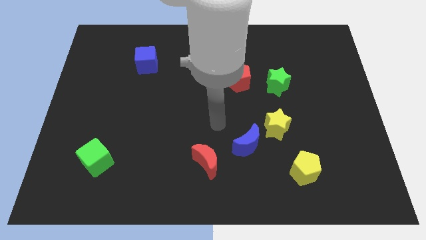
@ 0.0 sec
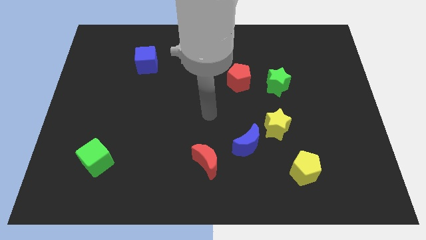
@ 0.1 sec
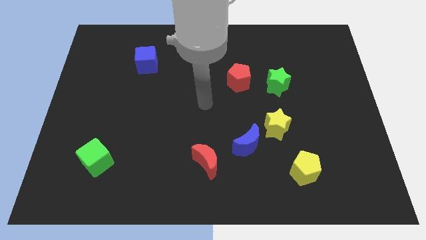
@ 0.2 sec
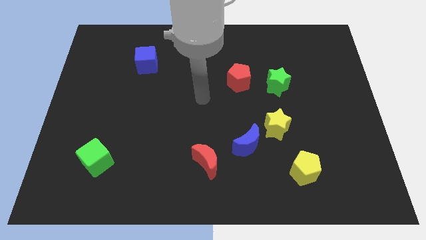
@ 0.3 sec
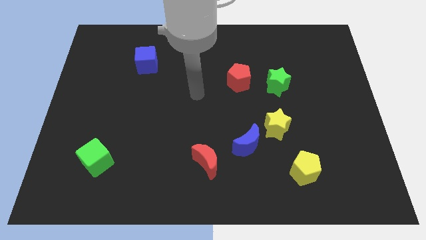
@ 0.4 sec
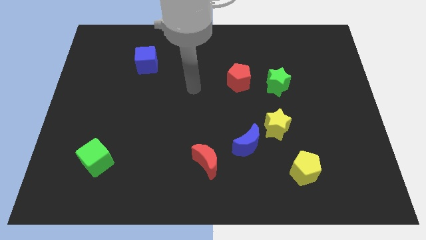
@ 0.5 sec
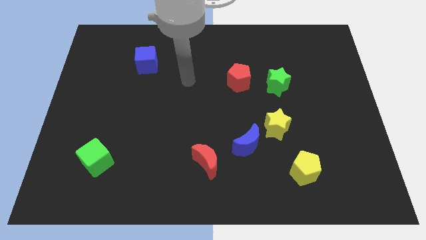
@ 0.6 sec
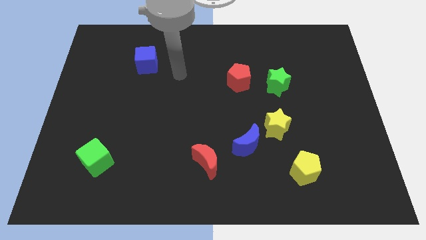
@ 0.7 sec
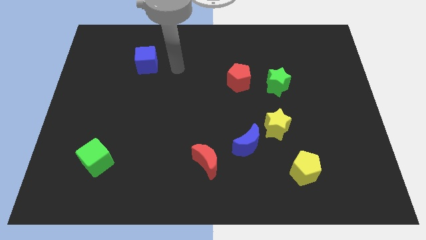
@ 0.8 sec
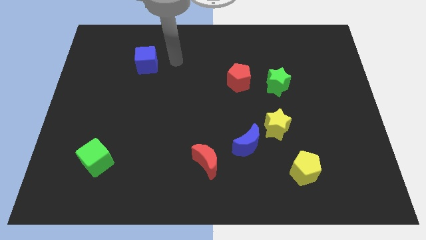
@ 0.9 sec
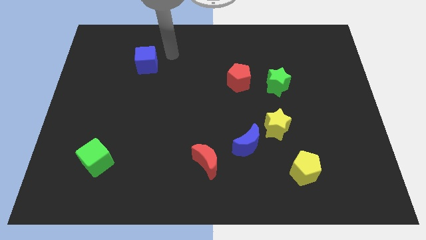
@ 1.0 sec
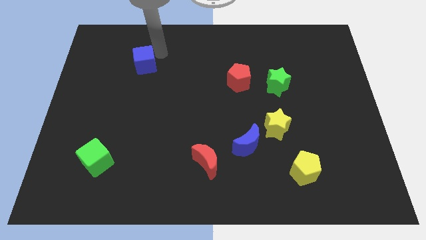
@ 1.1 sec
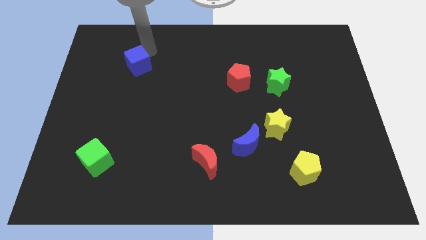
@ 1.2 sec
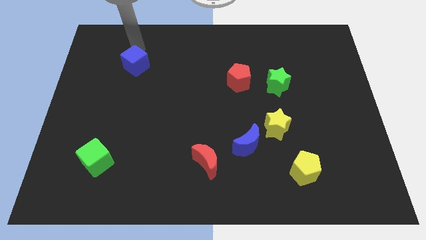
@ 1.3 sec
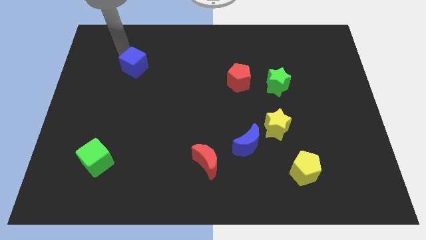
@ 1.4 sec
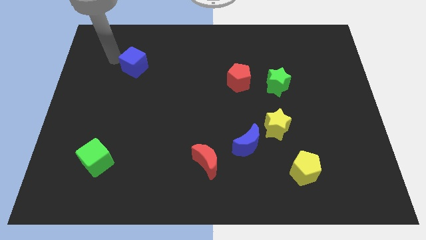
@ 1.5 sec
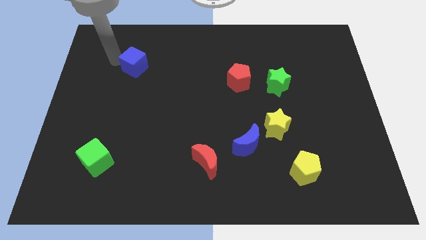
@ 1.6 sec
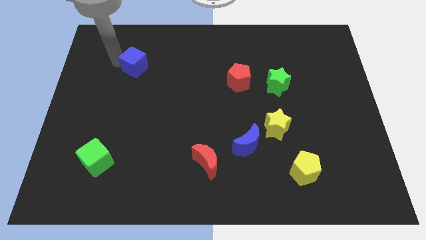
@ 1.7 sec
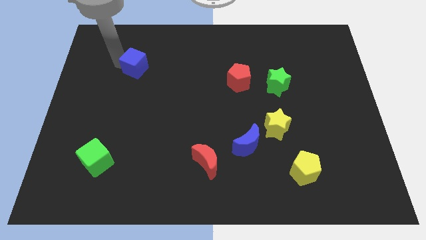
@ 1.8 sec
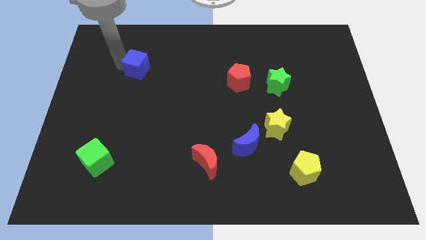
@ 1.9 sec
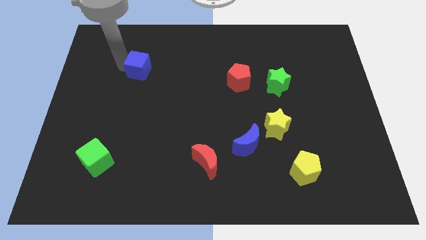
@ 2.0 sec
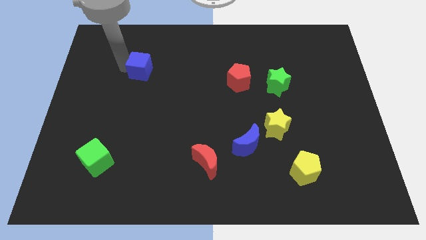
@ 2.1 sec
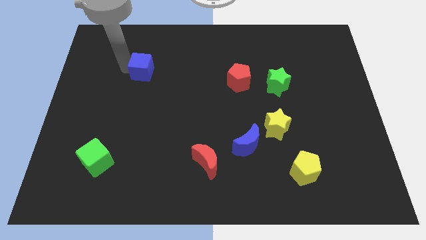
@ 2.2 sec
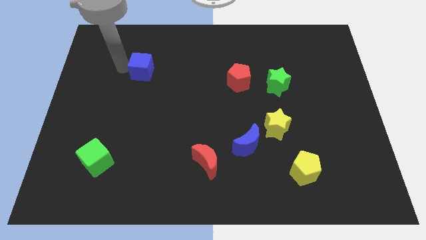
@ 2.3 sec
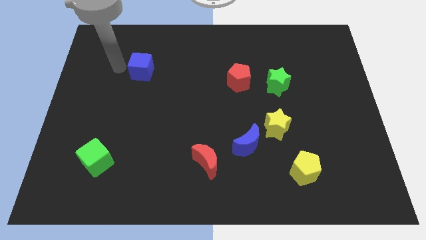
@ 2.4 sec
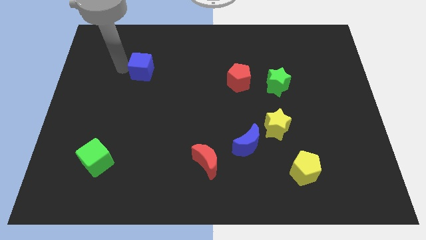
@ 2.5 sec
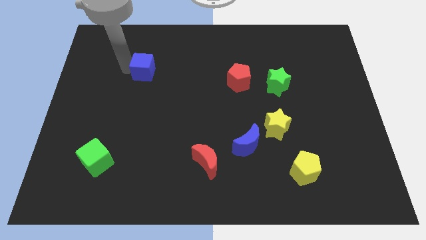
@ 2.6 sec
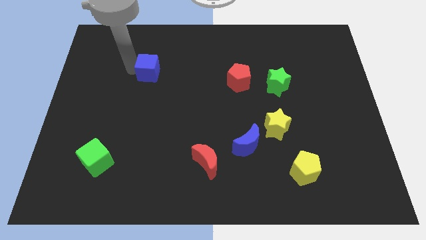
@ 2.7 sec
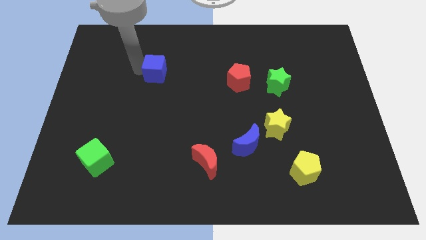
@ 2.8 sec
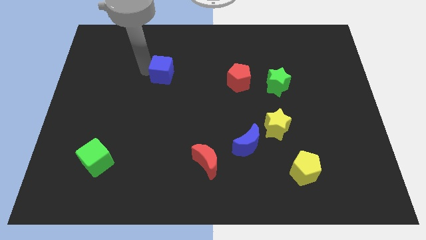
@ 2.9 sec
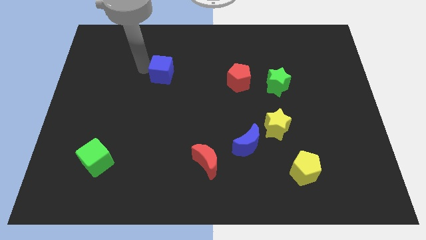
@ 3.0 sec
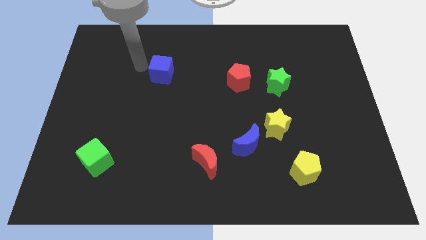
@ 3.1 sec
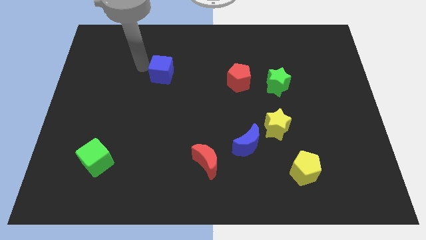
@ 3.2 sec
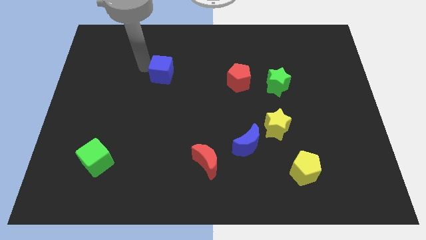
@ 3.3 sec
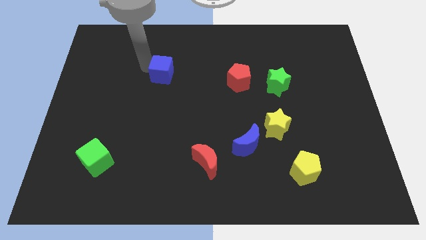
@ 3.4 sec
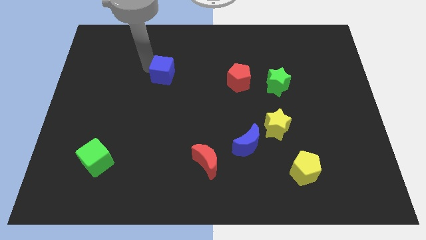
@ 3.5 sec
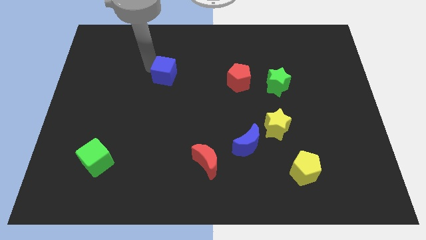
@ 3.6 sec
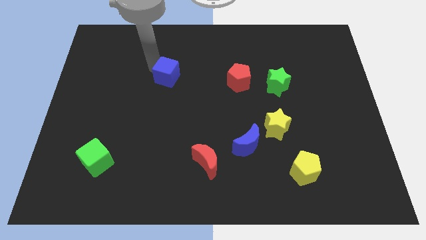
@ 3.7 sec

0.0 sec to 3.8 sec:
move the blue cube somewhat diagonally down and right

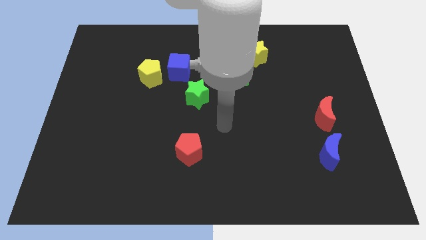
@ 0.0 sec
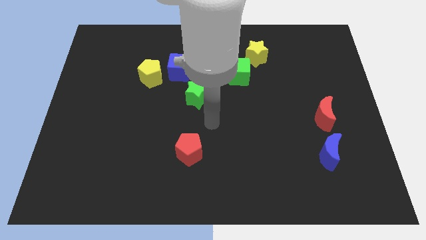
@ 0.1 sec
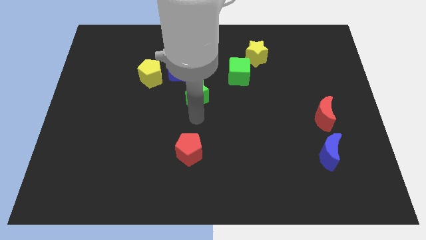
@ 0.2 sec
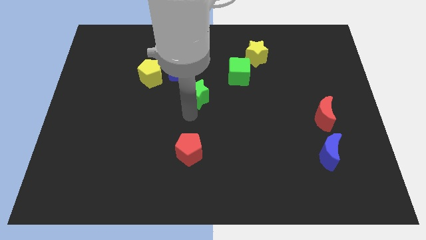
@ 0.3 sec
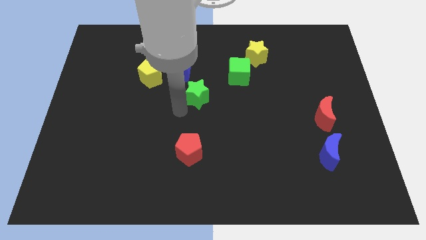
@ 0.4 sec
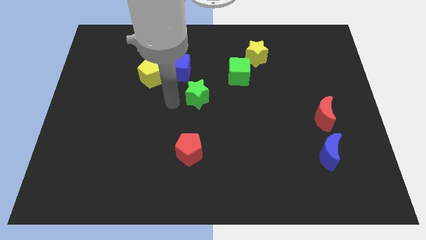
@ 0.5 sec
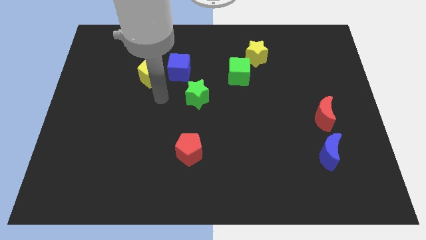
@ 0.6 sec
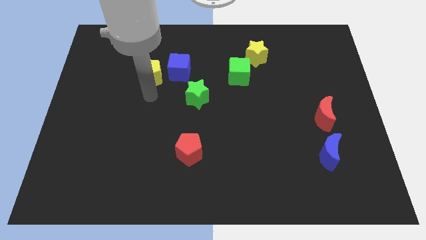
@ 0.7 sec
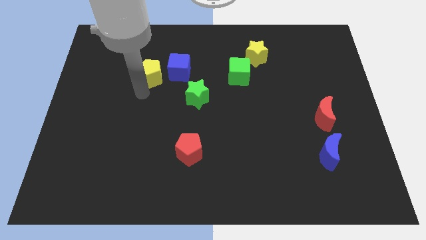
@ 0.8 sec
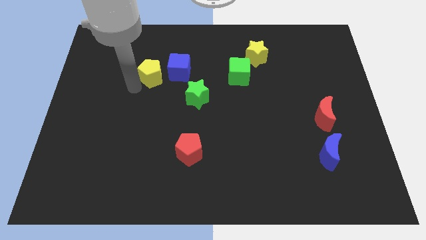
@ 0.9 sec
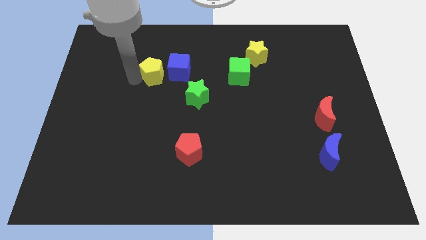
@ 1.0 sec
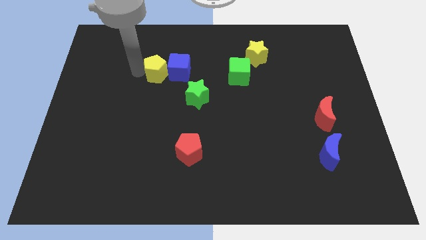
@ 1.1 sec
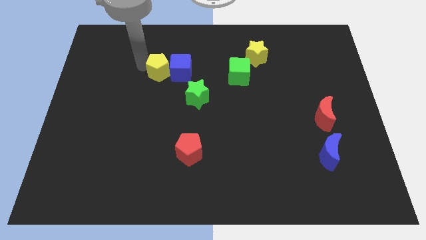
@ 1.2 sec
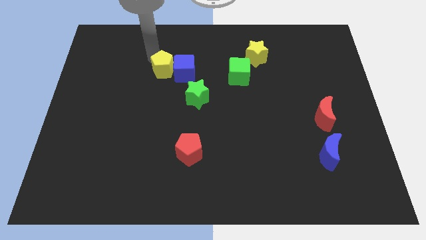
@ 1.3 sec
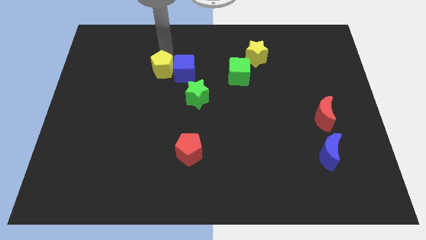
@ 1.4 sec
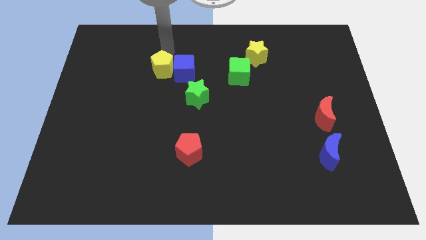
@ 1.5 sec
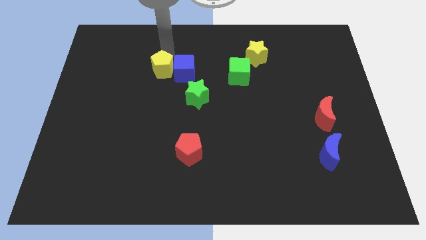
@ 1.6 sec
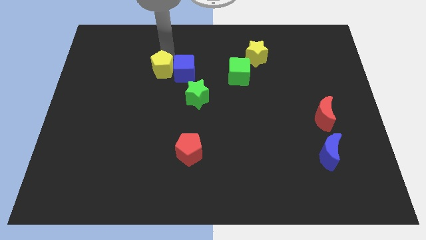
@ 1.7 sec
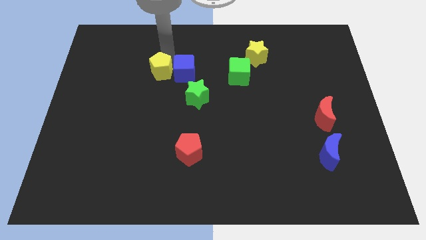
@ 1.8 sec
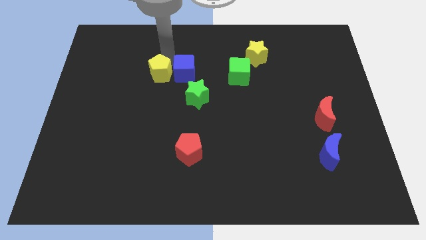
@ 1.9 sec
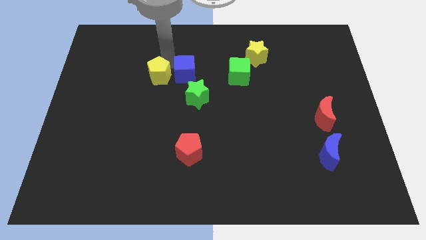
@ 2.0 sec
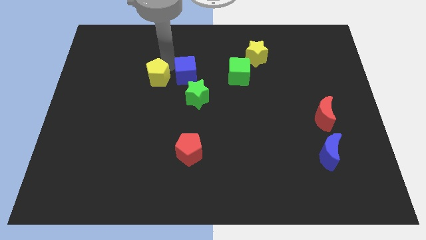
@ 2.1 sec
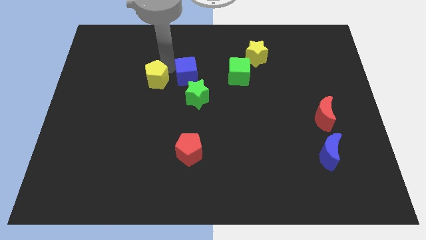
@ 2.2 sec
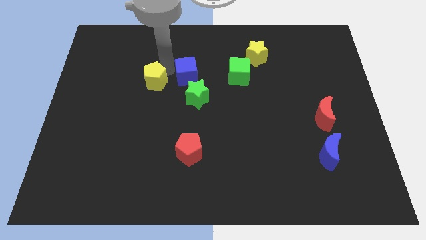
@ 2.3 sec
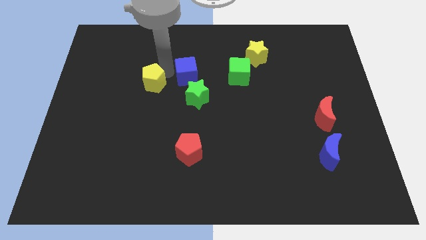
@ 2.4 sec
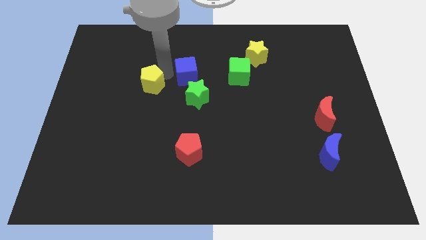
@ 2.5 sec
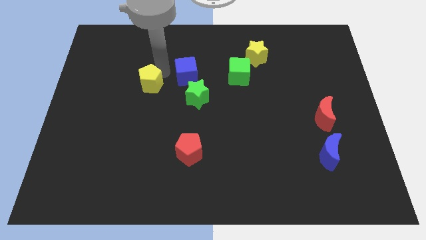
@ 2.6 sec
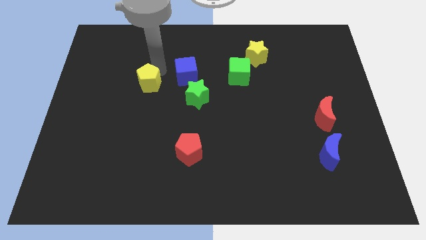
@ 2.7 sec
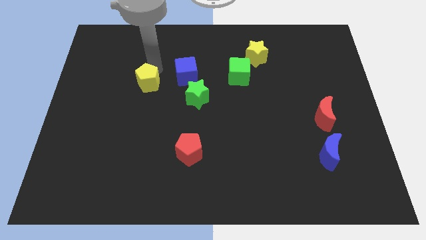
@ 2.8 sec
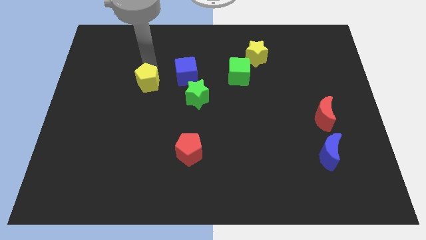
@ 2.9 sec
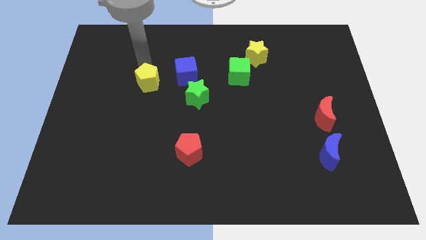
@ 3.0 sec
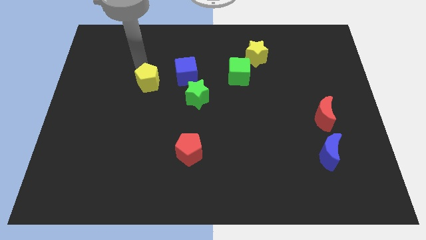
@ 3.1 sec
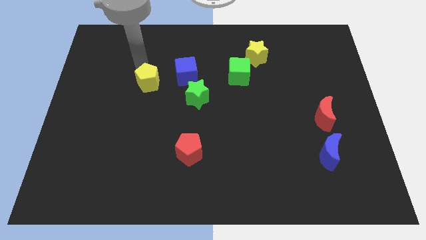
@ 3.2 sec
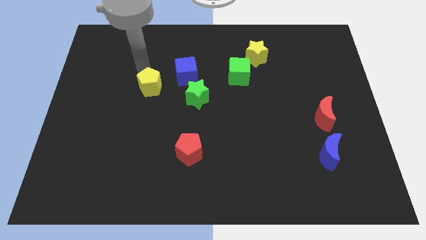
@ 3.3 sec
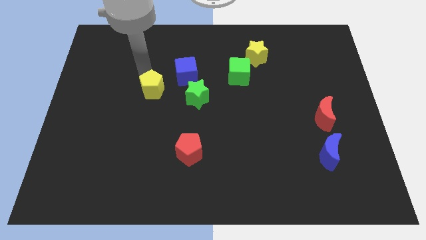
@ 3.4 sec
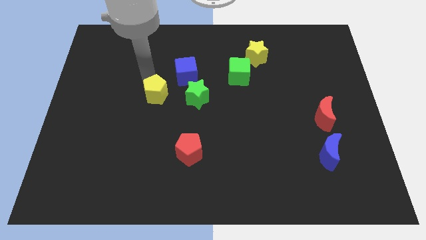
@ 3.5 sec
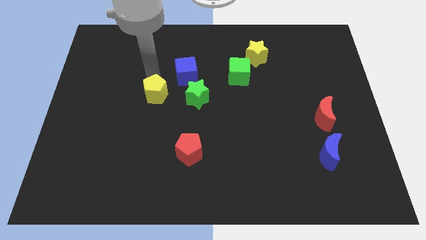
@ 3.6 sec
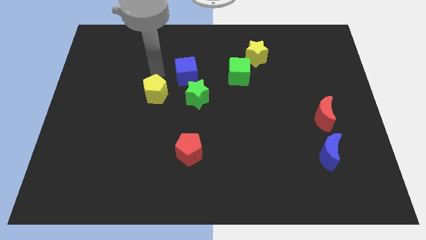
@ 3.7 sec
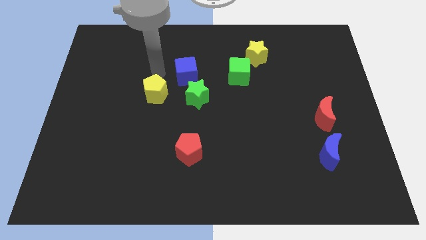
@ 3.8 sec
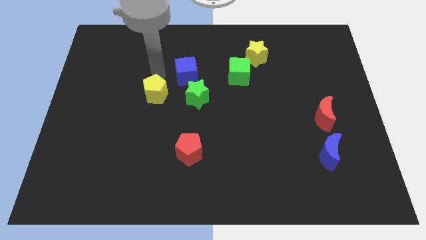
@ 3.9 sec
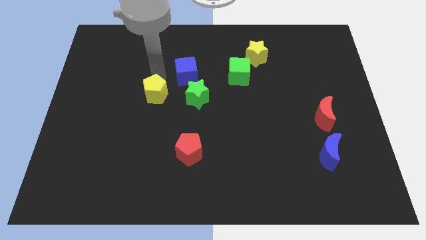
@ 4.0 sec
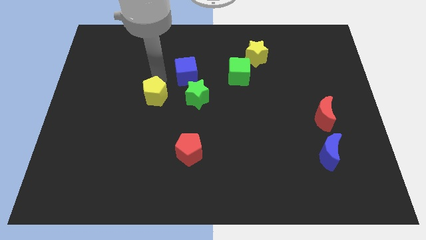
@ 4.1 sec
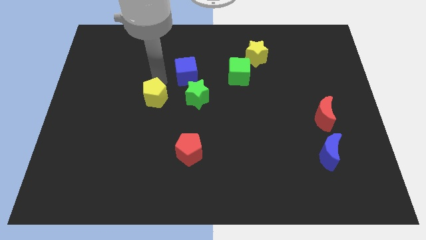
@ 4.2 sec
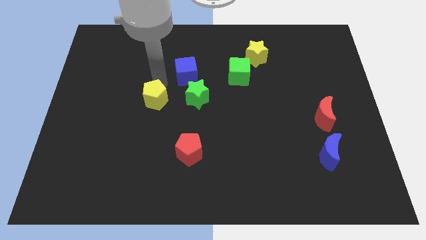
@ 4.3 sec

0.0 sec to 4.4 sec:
slightly slide the yellow pentagon down
